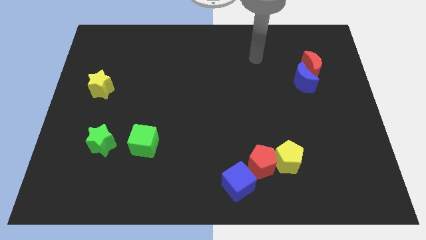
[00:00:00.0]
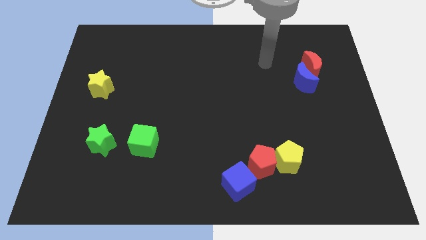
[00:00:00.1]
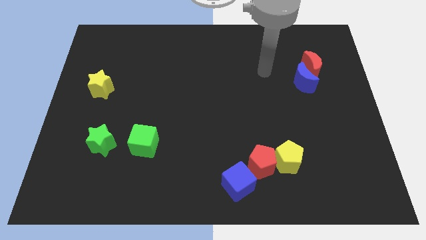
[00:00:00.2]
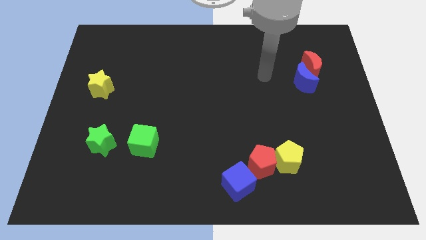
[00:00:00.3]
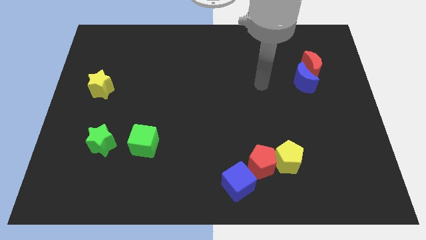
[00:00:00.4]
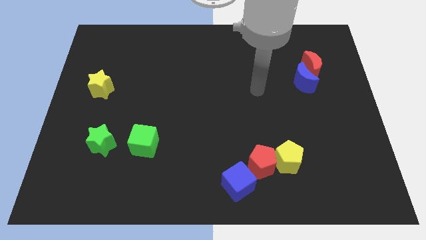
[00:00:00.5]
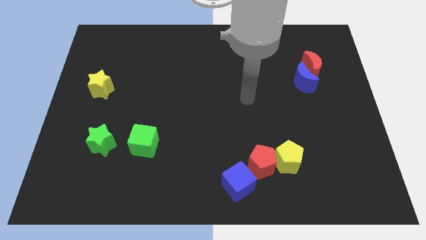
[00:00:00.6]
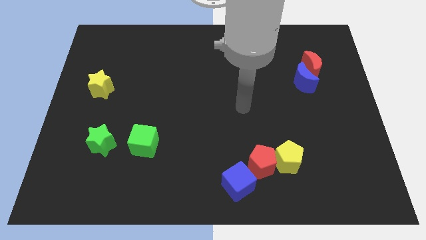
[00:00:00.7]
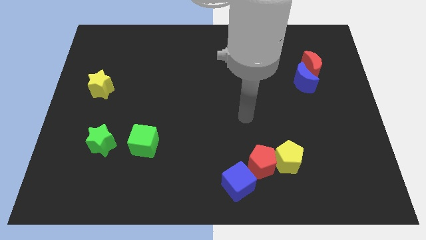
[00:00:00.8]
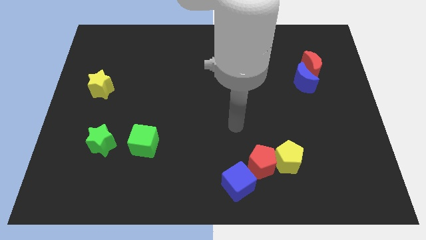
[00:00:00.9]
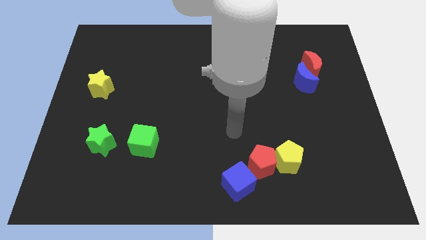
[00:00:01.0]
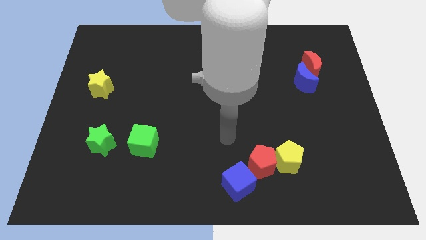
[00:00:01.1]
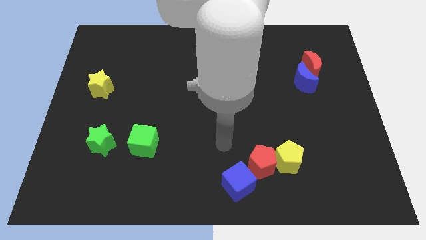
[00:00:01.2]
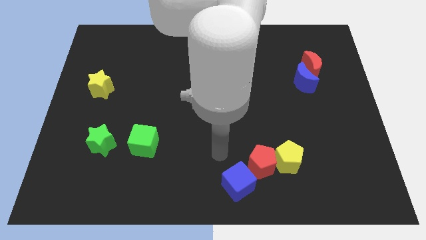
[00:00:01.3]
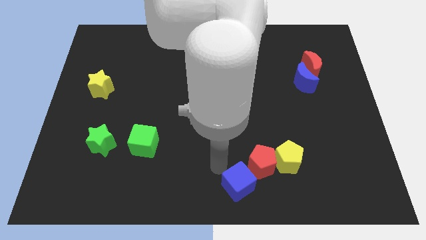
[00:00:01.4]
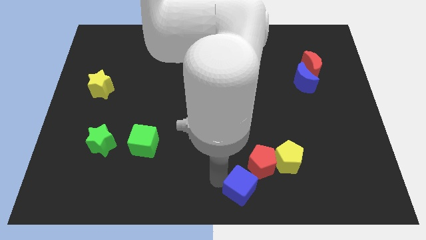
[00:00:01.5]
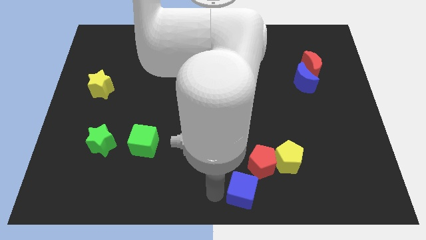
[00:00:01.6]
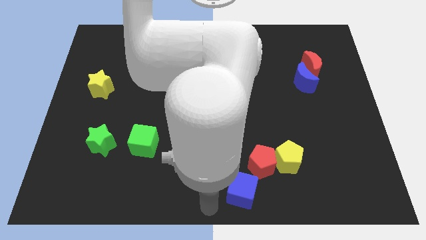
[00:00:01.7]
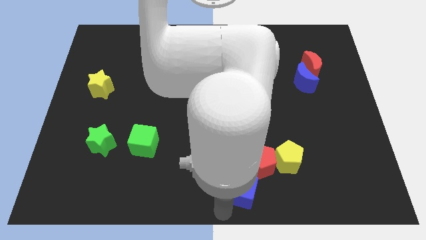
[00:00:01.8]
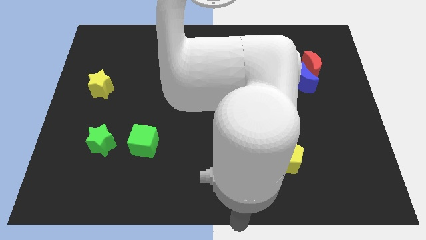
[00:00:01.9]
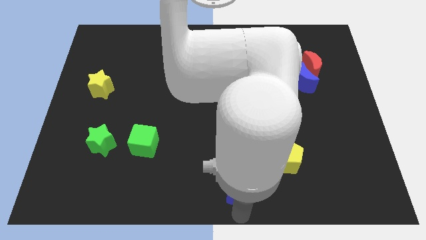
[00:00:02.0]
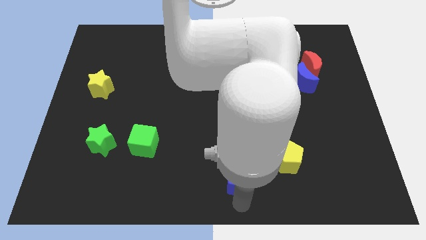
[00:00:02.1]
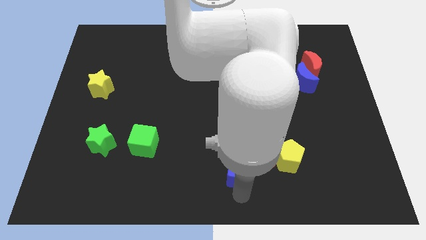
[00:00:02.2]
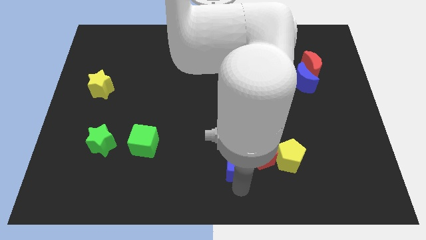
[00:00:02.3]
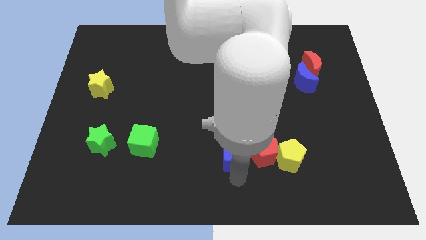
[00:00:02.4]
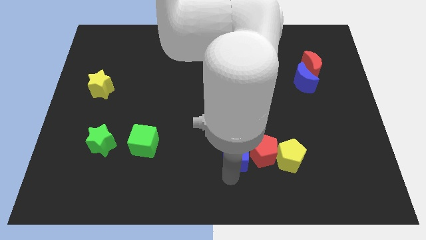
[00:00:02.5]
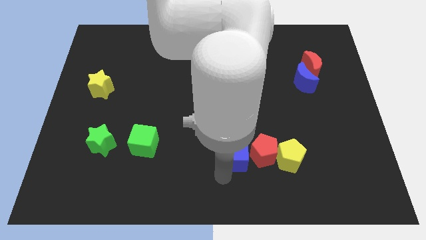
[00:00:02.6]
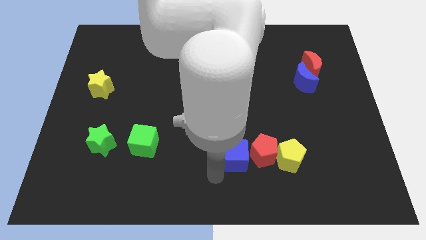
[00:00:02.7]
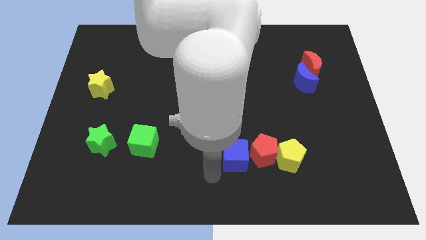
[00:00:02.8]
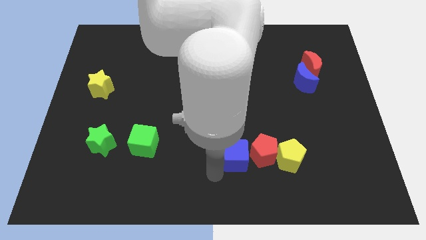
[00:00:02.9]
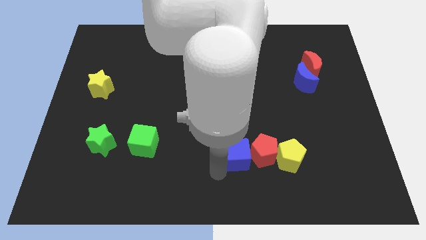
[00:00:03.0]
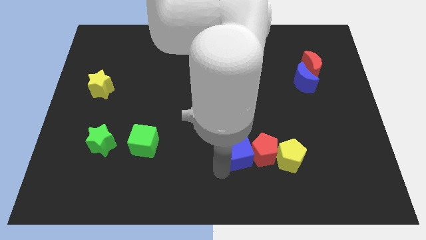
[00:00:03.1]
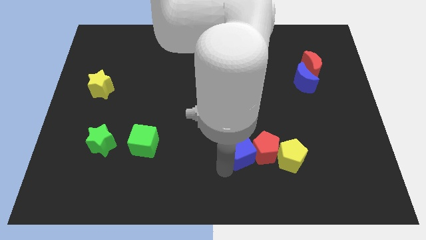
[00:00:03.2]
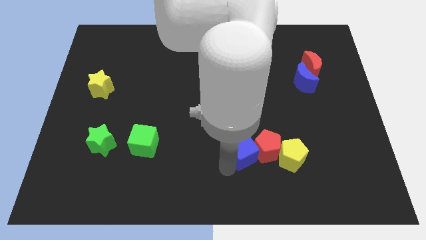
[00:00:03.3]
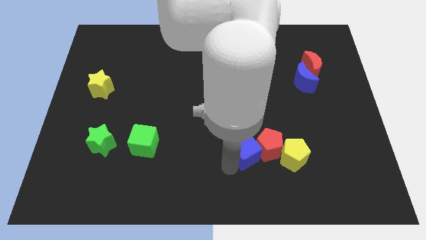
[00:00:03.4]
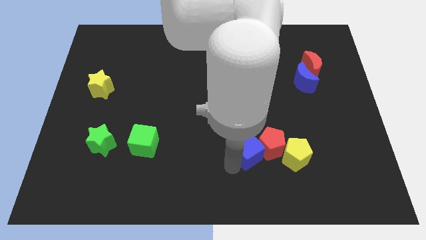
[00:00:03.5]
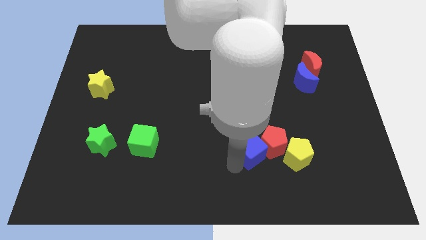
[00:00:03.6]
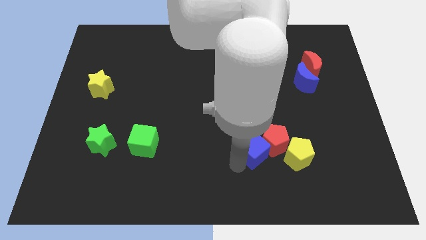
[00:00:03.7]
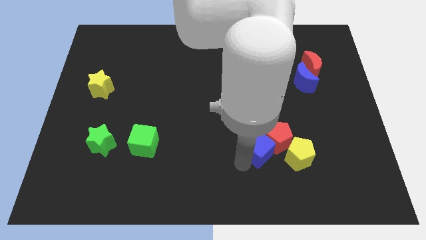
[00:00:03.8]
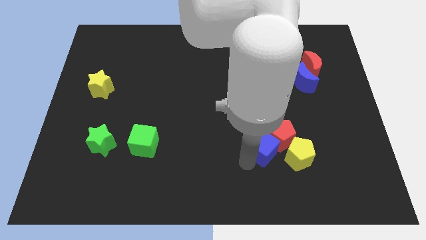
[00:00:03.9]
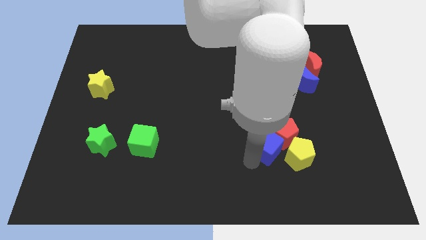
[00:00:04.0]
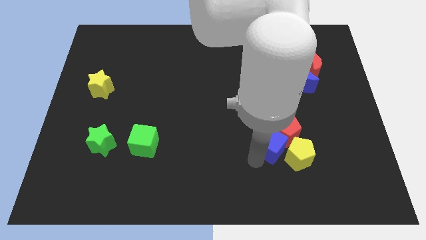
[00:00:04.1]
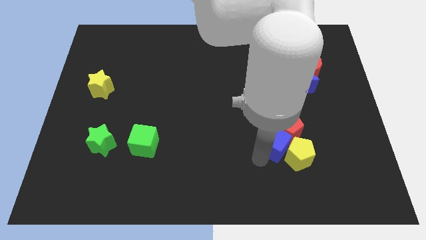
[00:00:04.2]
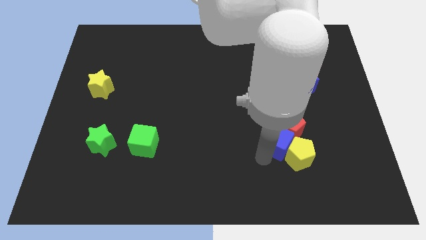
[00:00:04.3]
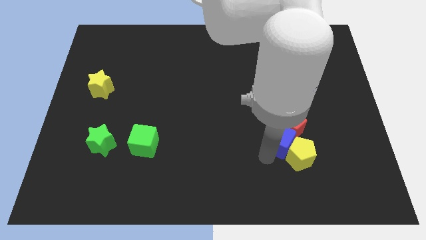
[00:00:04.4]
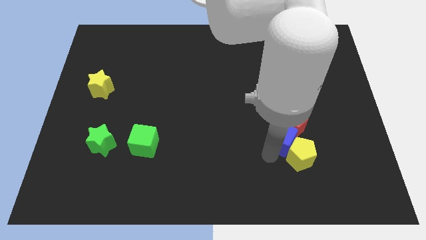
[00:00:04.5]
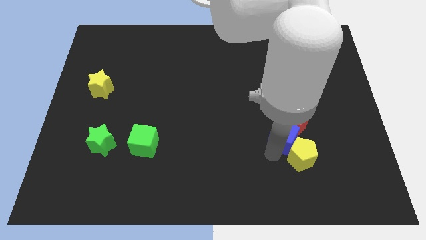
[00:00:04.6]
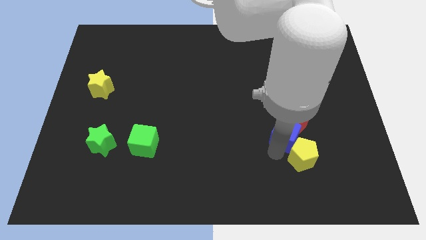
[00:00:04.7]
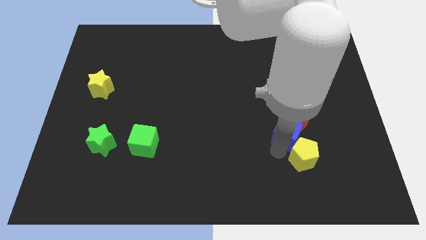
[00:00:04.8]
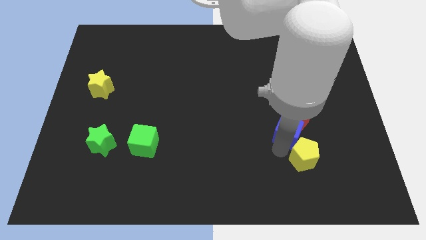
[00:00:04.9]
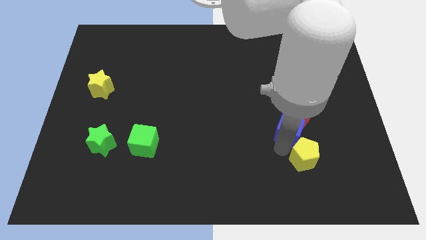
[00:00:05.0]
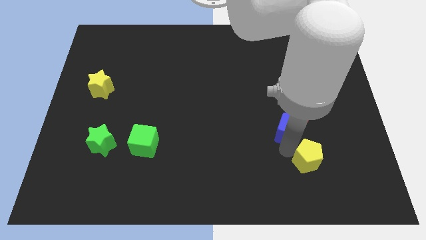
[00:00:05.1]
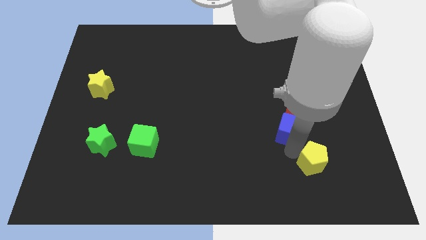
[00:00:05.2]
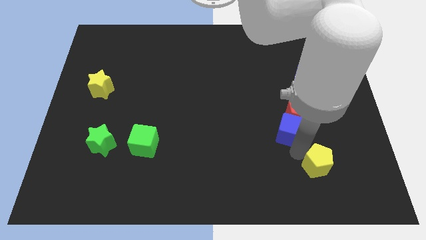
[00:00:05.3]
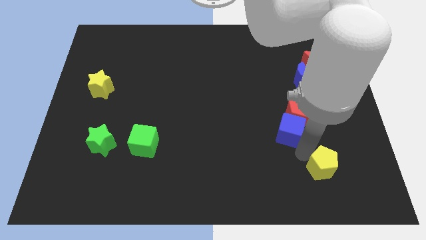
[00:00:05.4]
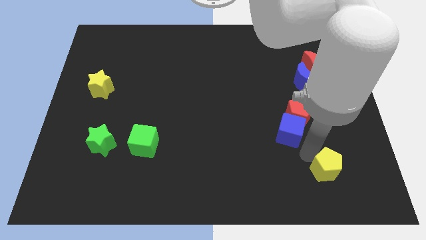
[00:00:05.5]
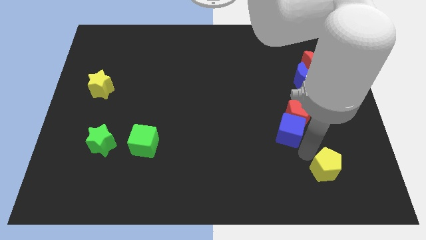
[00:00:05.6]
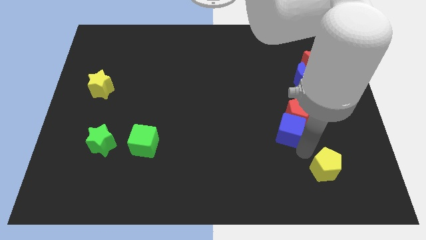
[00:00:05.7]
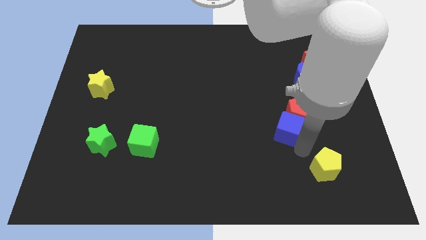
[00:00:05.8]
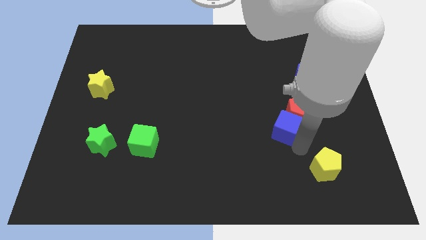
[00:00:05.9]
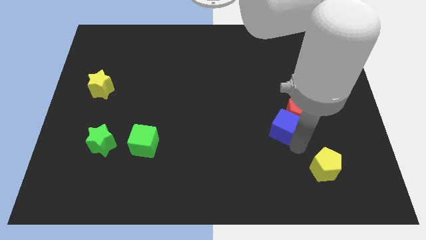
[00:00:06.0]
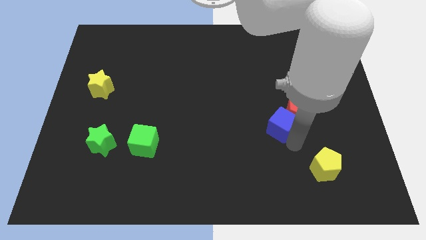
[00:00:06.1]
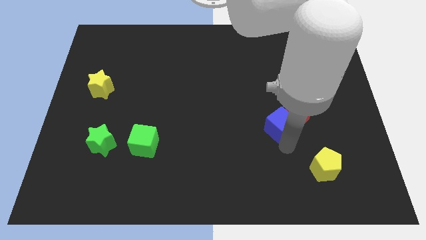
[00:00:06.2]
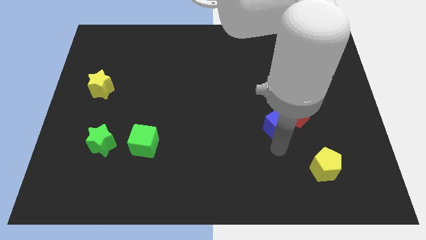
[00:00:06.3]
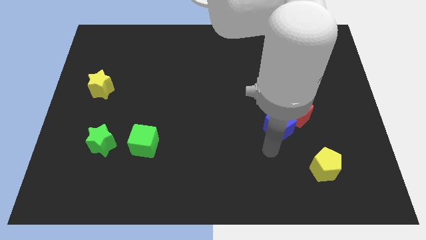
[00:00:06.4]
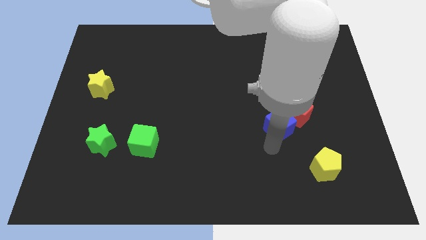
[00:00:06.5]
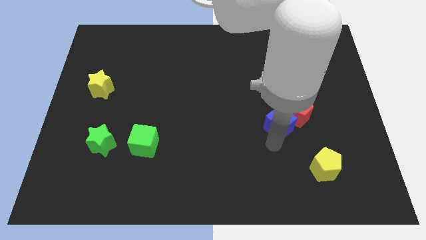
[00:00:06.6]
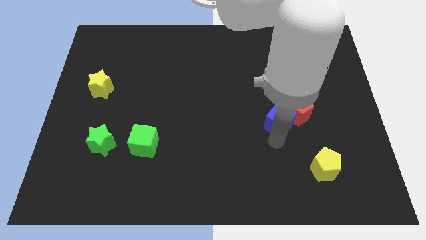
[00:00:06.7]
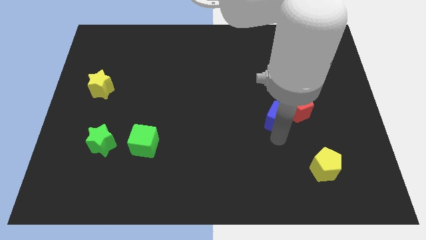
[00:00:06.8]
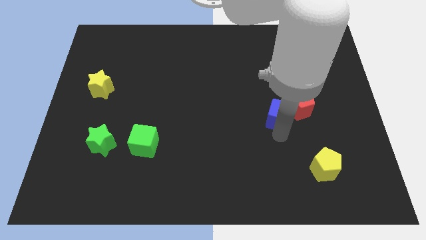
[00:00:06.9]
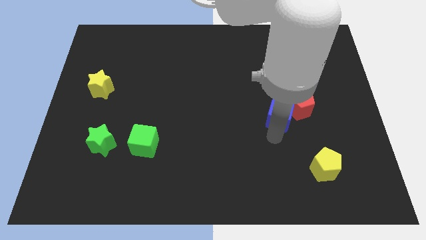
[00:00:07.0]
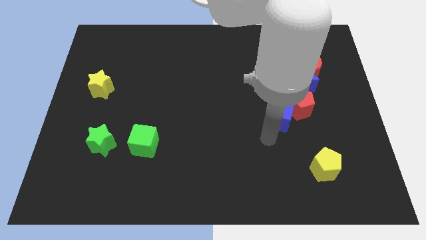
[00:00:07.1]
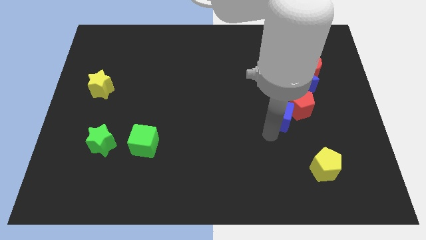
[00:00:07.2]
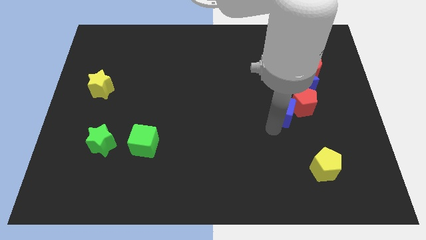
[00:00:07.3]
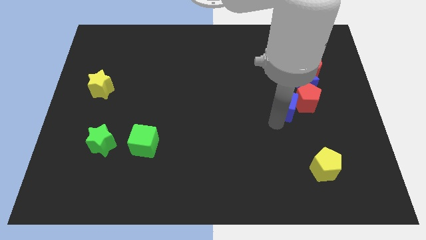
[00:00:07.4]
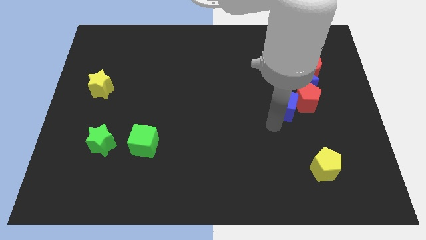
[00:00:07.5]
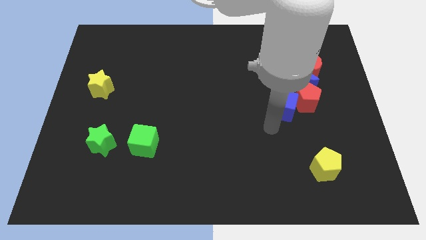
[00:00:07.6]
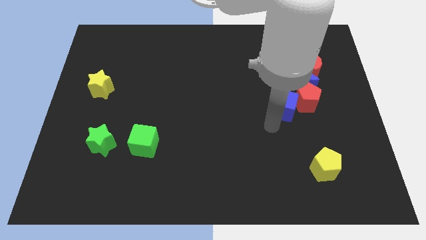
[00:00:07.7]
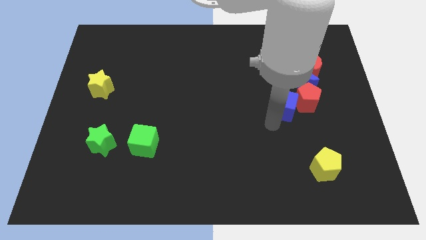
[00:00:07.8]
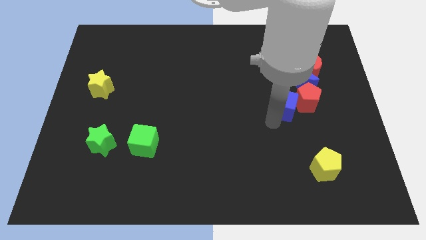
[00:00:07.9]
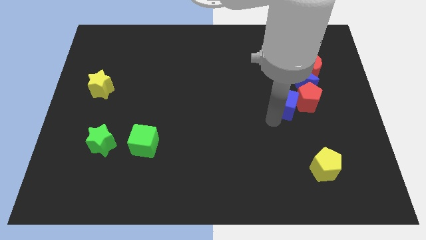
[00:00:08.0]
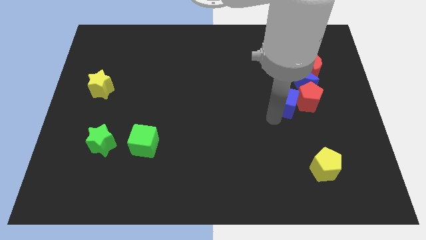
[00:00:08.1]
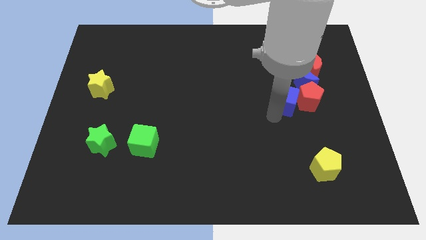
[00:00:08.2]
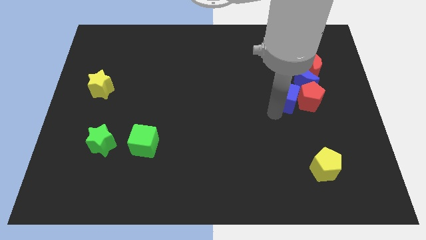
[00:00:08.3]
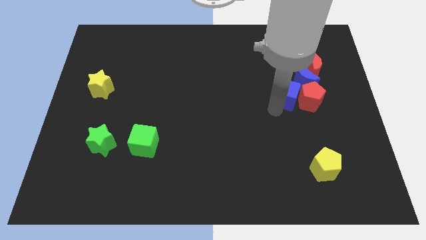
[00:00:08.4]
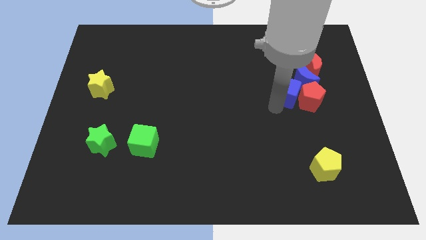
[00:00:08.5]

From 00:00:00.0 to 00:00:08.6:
move the blue cube towards the blue moon
